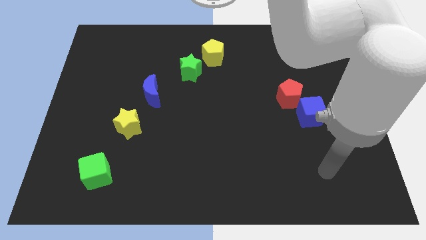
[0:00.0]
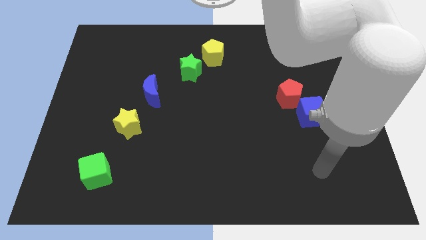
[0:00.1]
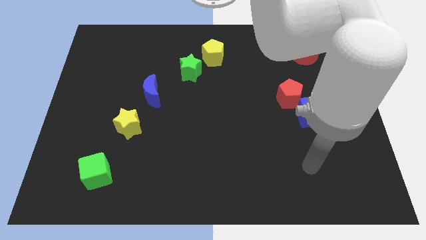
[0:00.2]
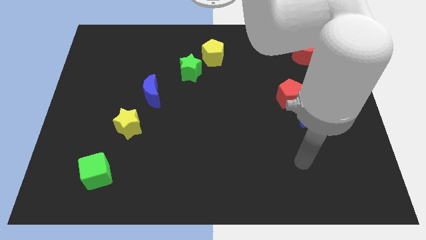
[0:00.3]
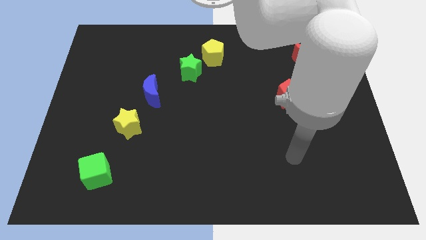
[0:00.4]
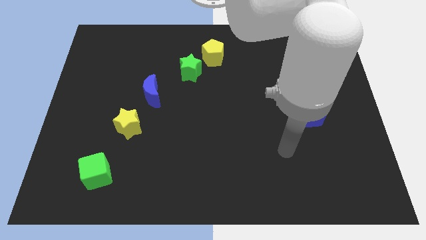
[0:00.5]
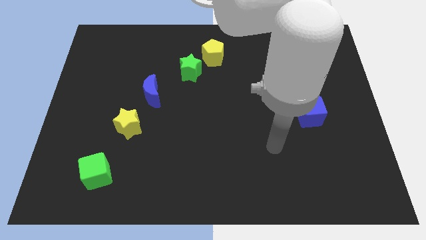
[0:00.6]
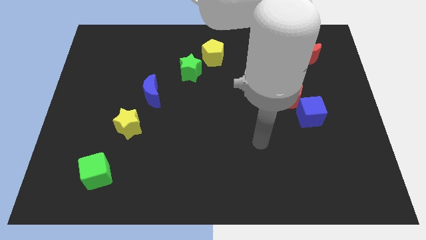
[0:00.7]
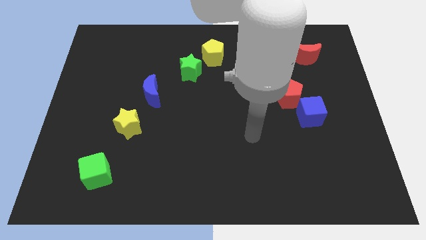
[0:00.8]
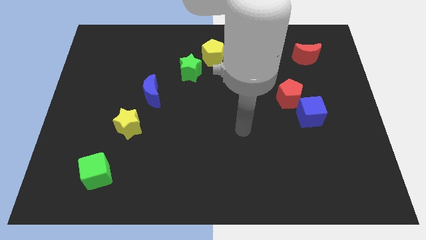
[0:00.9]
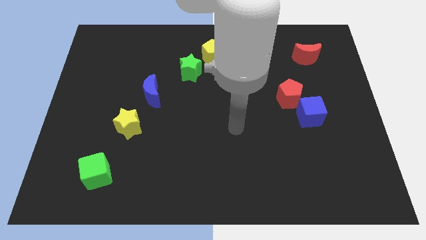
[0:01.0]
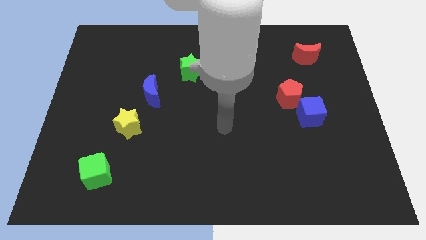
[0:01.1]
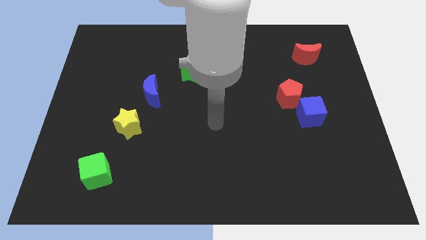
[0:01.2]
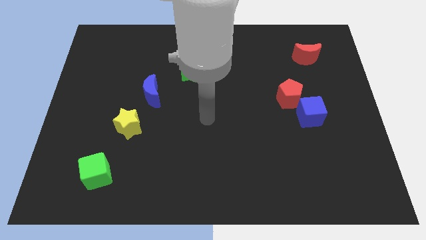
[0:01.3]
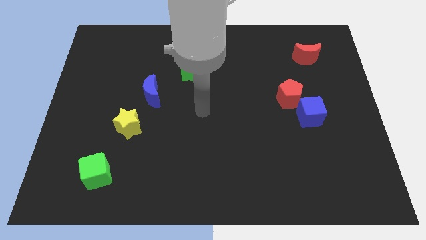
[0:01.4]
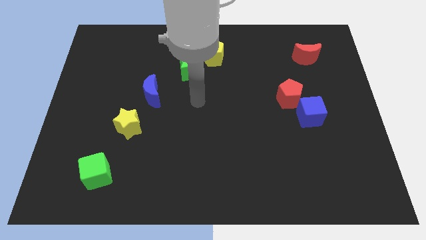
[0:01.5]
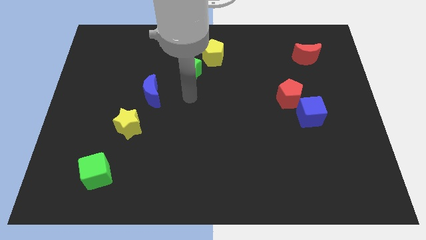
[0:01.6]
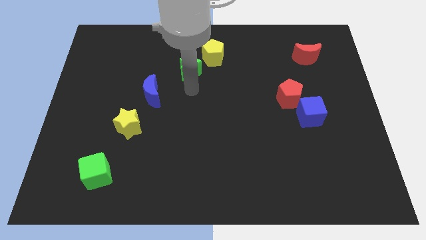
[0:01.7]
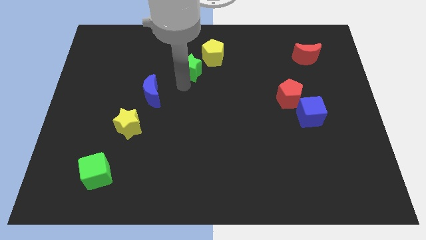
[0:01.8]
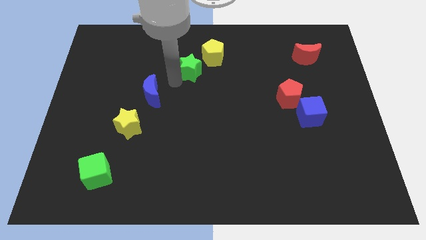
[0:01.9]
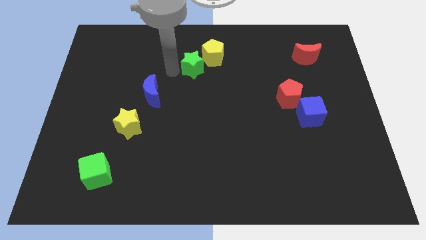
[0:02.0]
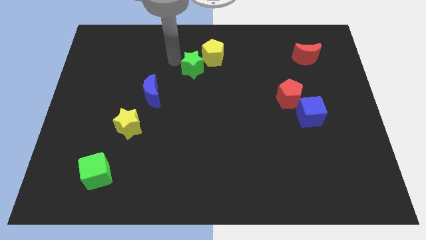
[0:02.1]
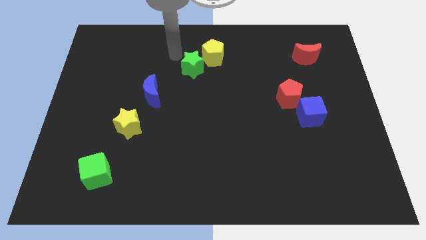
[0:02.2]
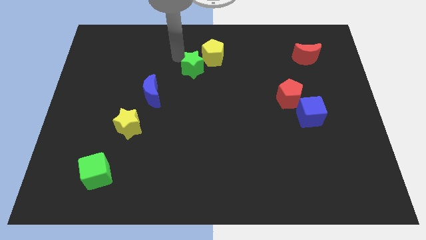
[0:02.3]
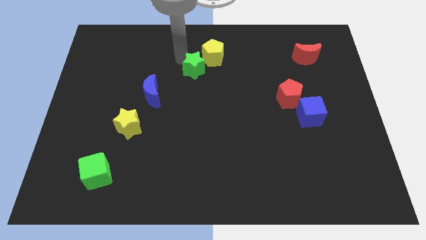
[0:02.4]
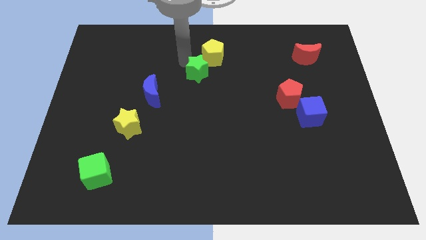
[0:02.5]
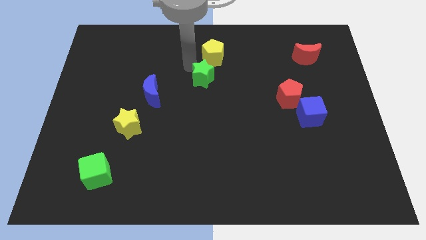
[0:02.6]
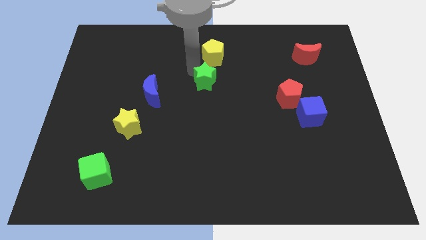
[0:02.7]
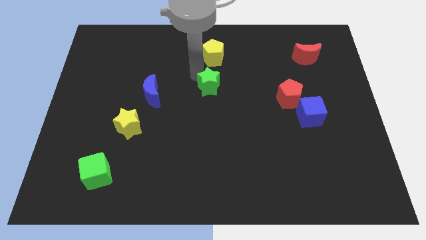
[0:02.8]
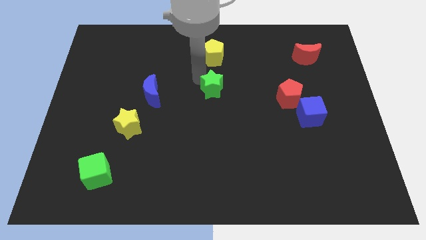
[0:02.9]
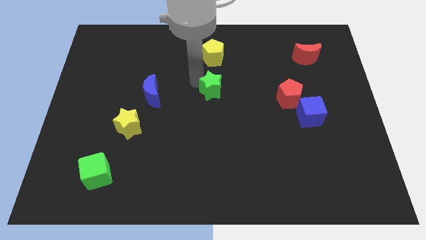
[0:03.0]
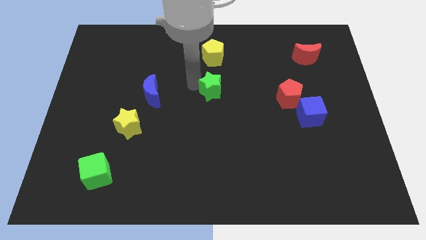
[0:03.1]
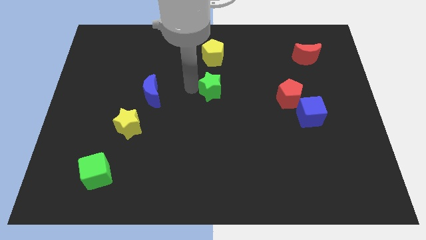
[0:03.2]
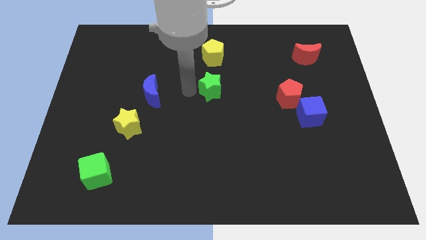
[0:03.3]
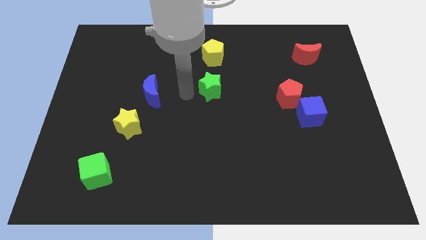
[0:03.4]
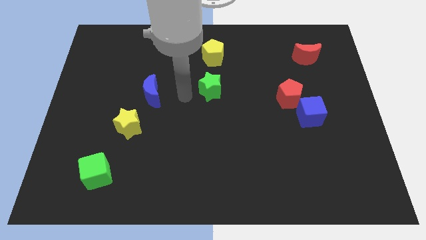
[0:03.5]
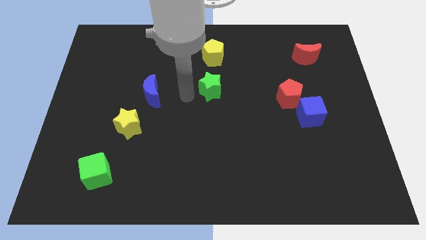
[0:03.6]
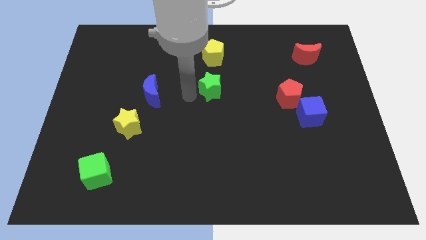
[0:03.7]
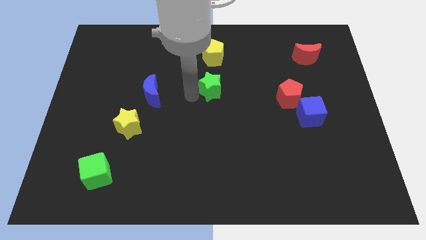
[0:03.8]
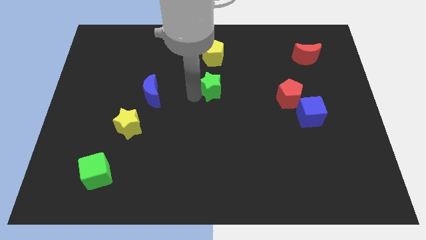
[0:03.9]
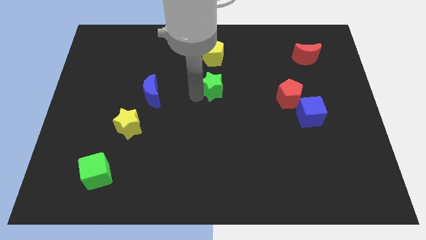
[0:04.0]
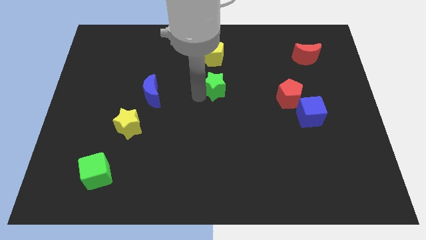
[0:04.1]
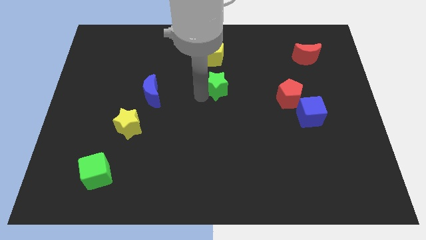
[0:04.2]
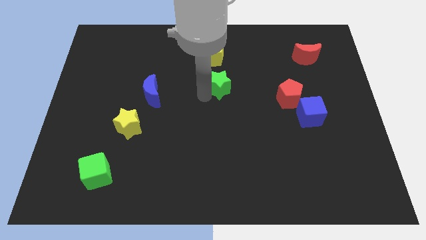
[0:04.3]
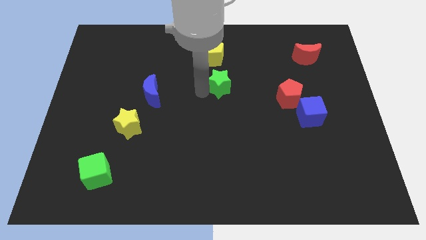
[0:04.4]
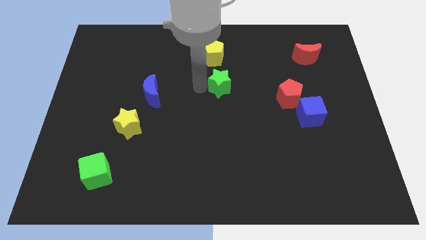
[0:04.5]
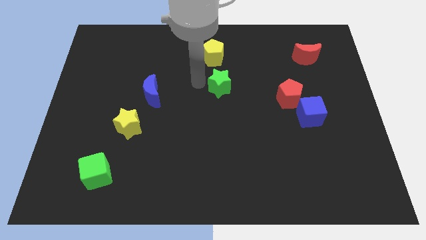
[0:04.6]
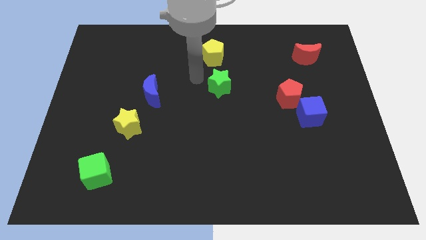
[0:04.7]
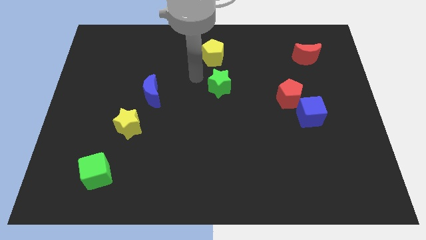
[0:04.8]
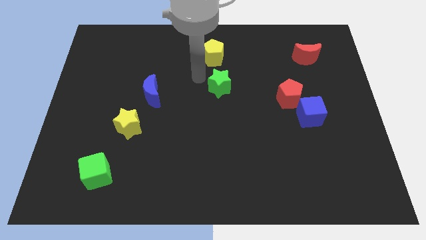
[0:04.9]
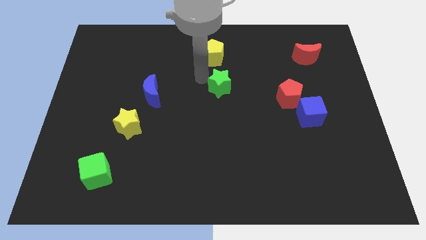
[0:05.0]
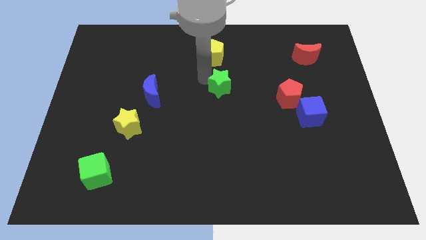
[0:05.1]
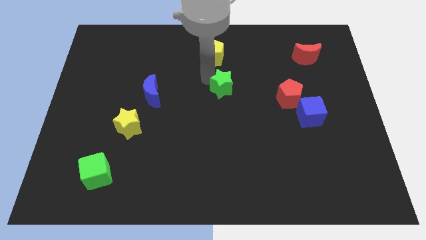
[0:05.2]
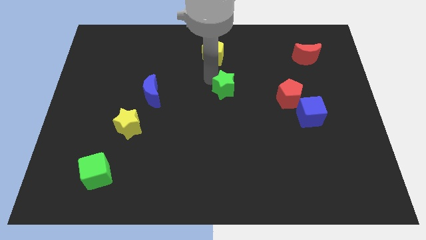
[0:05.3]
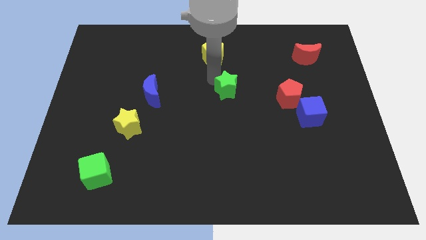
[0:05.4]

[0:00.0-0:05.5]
put the green star to the left of the red pentagon

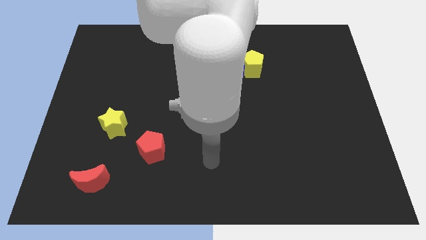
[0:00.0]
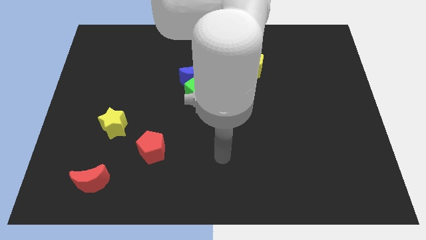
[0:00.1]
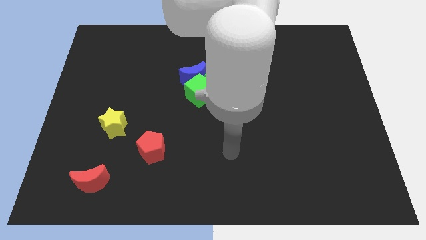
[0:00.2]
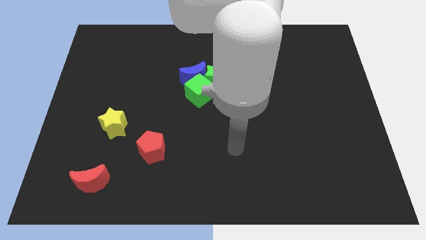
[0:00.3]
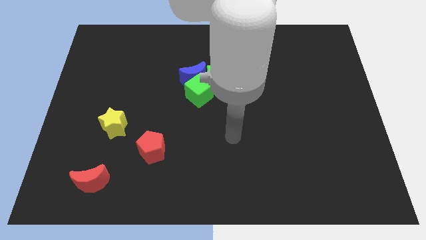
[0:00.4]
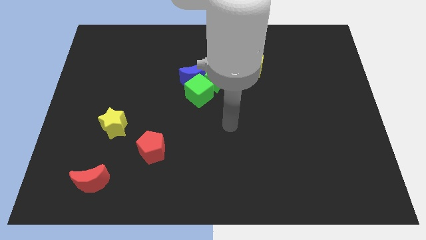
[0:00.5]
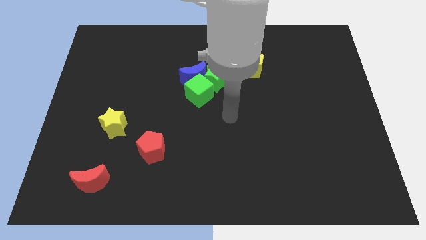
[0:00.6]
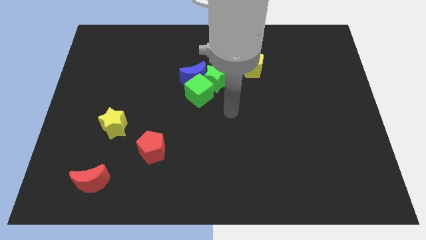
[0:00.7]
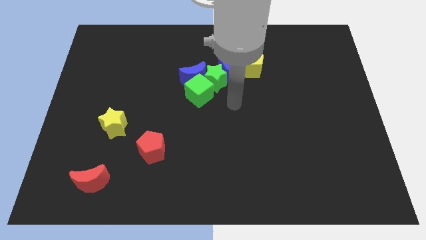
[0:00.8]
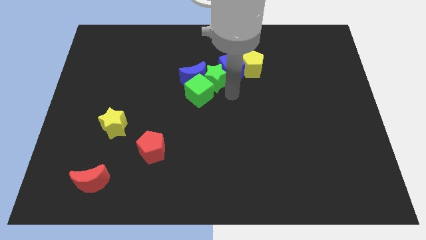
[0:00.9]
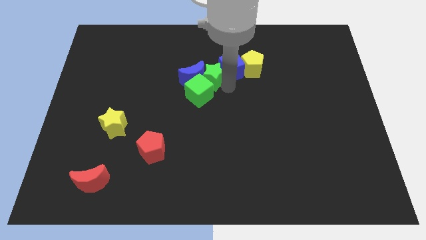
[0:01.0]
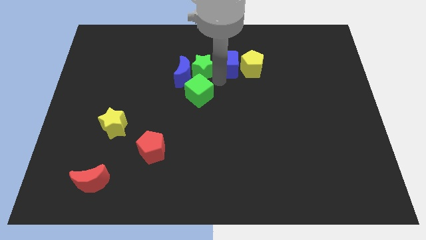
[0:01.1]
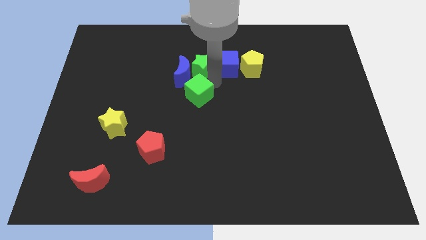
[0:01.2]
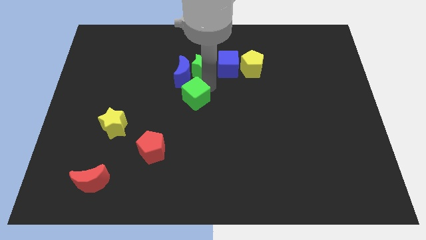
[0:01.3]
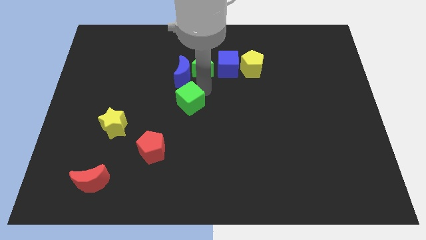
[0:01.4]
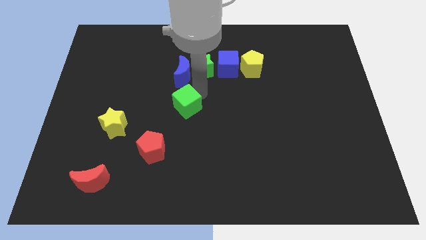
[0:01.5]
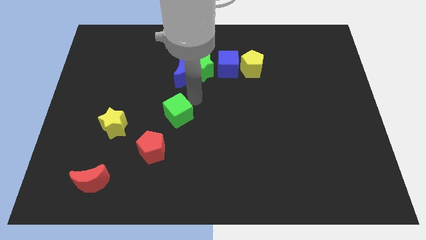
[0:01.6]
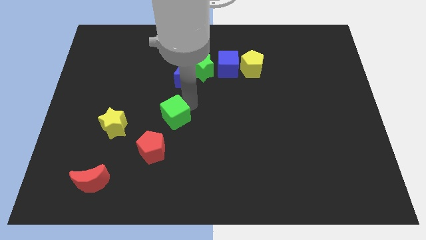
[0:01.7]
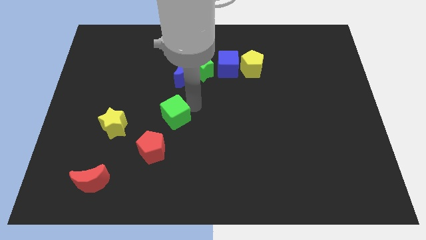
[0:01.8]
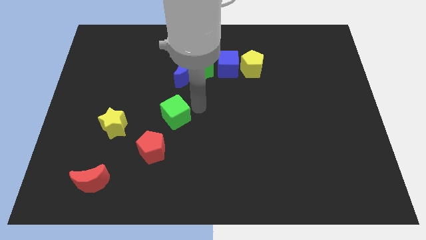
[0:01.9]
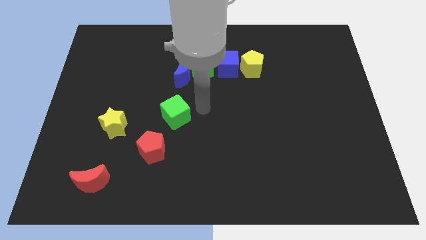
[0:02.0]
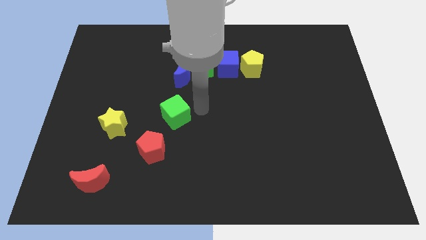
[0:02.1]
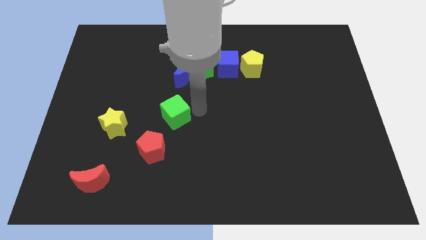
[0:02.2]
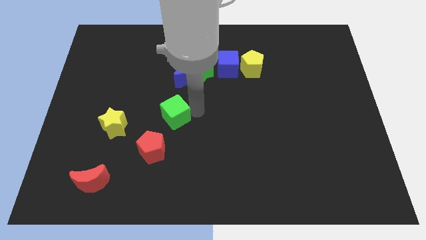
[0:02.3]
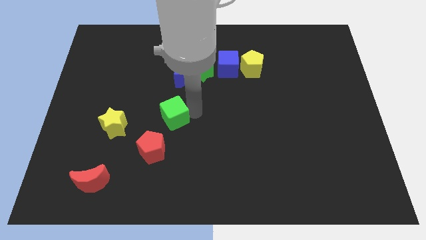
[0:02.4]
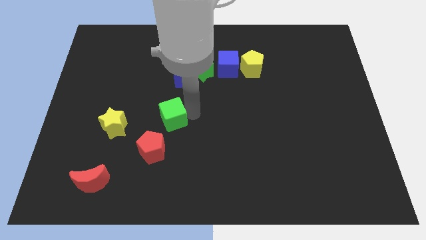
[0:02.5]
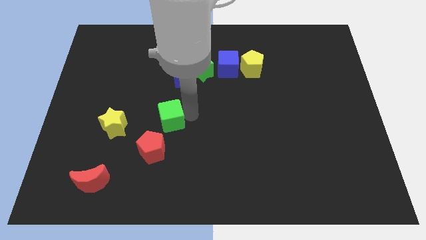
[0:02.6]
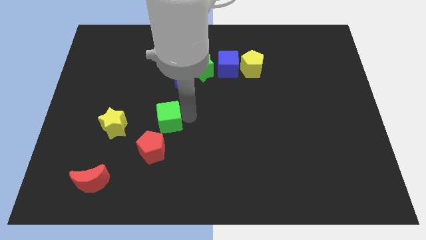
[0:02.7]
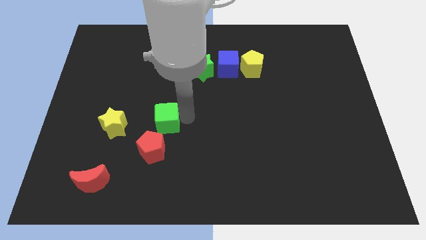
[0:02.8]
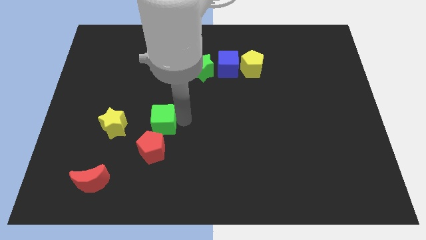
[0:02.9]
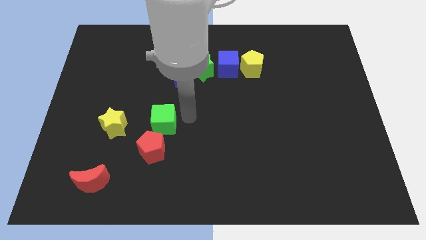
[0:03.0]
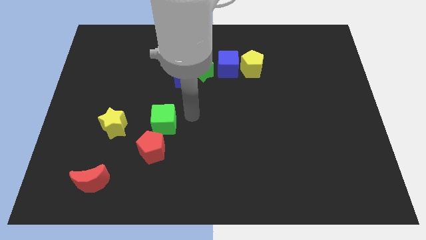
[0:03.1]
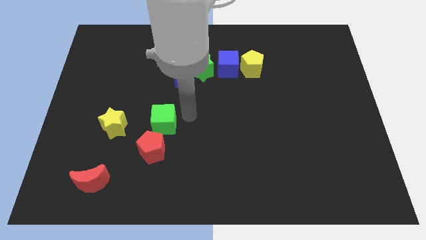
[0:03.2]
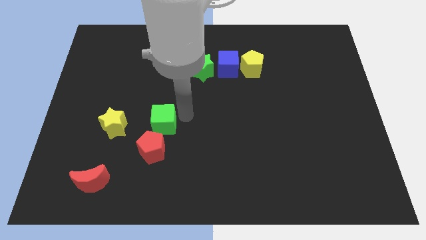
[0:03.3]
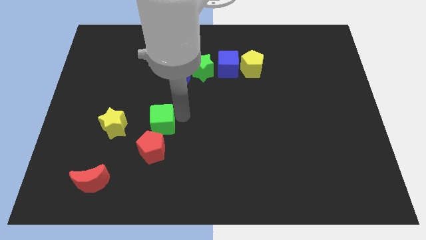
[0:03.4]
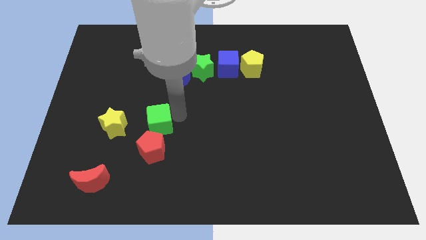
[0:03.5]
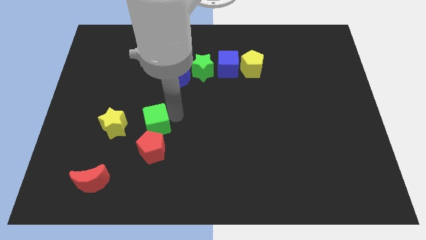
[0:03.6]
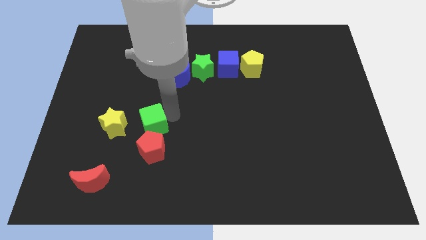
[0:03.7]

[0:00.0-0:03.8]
move the green cube to the top left side of the red pentagon
